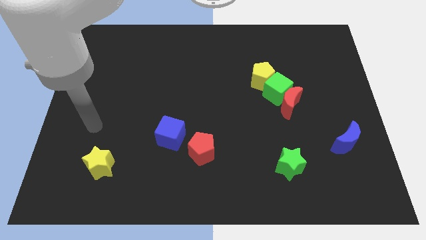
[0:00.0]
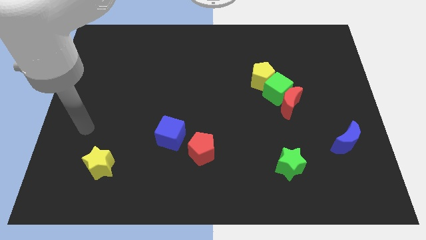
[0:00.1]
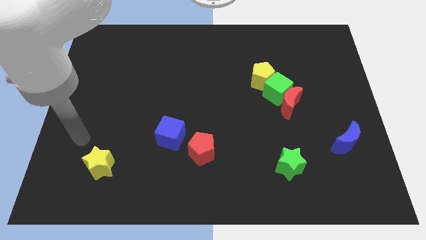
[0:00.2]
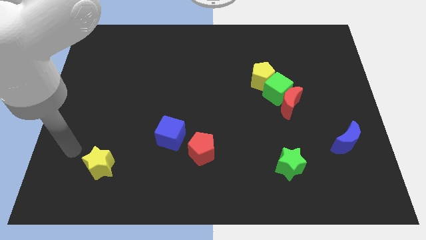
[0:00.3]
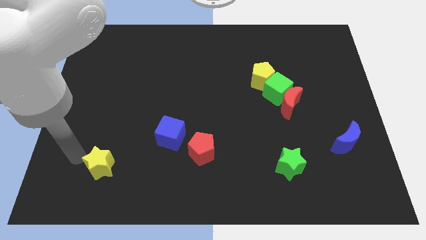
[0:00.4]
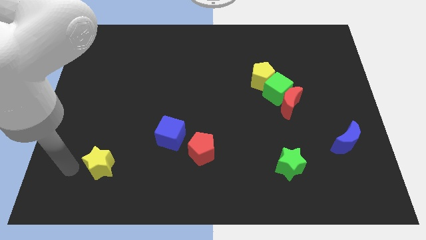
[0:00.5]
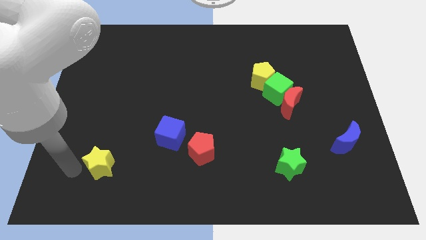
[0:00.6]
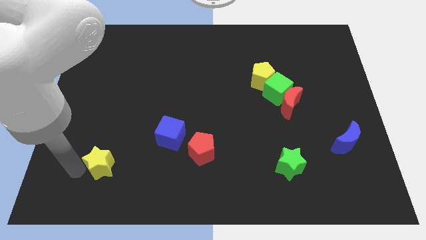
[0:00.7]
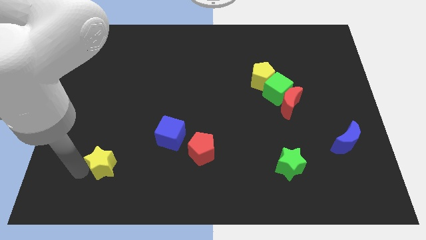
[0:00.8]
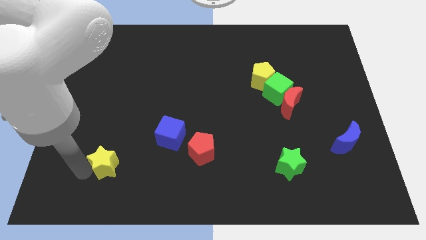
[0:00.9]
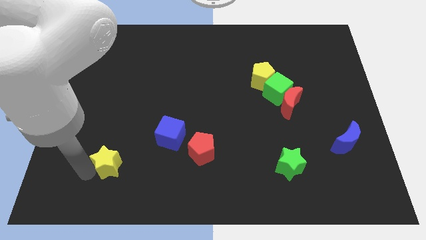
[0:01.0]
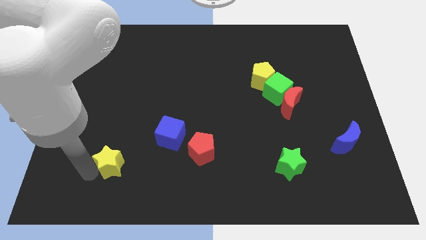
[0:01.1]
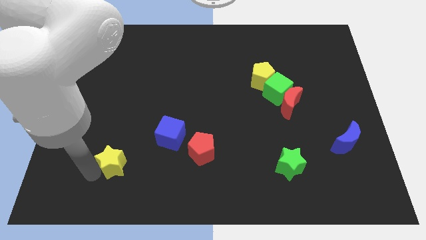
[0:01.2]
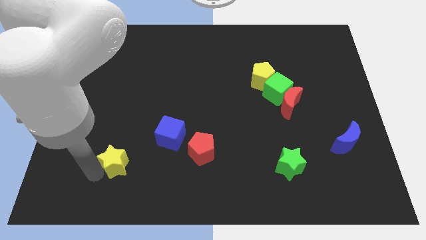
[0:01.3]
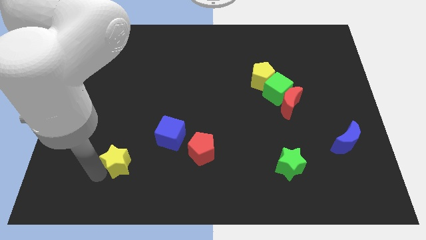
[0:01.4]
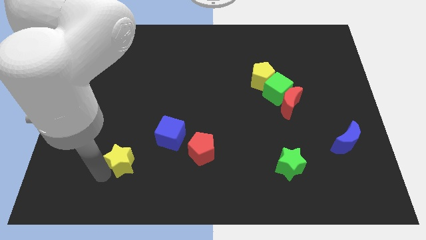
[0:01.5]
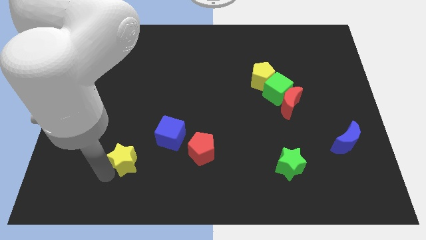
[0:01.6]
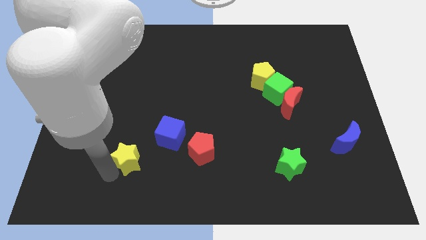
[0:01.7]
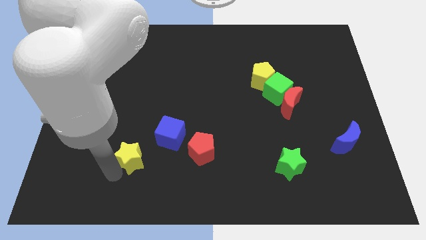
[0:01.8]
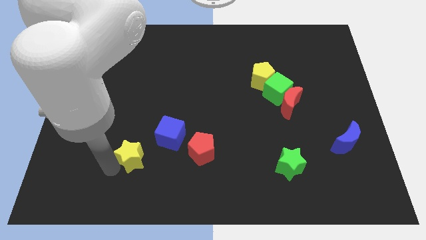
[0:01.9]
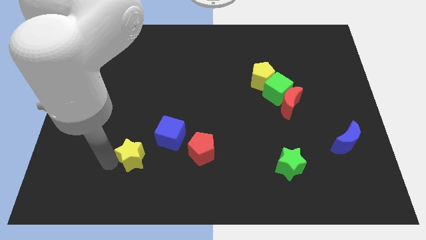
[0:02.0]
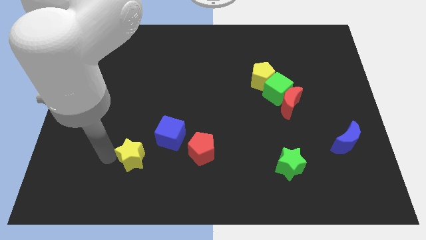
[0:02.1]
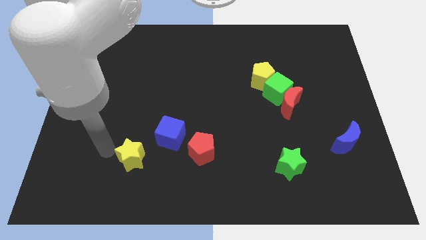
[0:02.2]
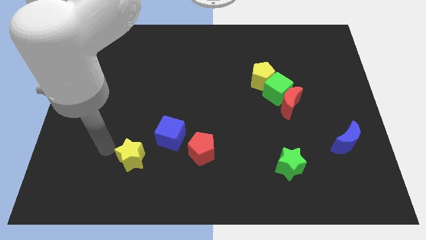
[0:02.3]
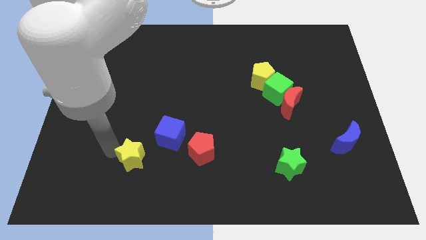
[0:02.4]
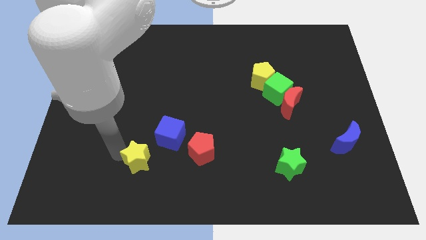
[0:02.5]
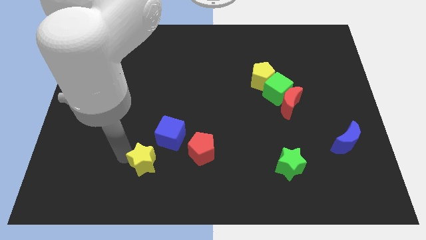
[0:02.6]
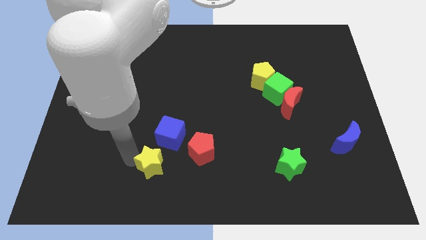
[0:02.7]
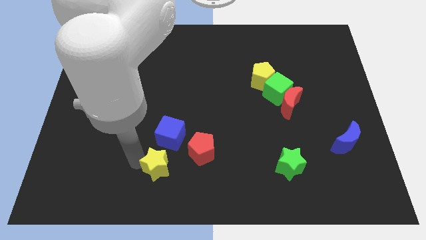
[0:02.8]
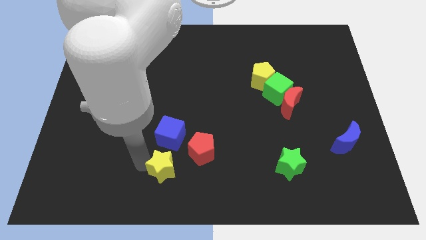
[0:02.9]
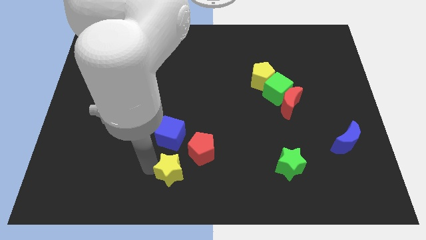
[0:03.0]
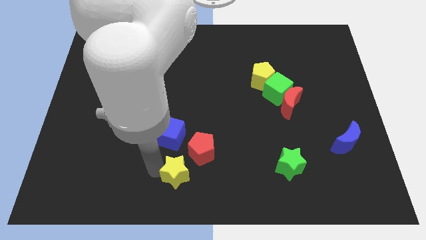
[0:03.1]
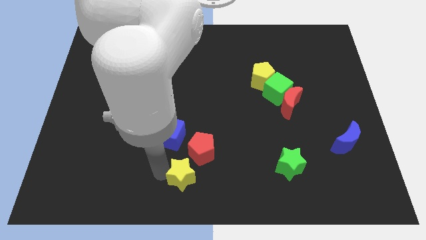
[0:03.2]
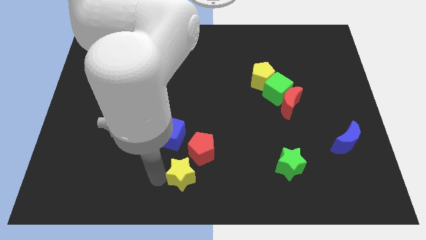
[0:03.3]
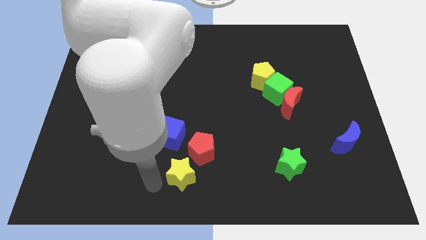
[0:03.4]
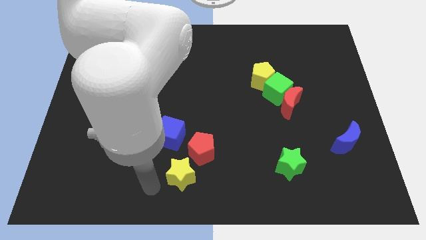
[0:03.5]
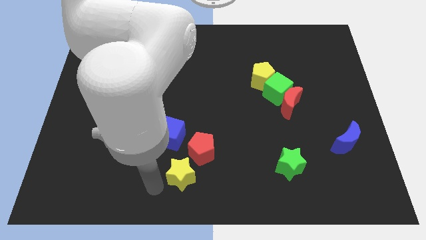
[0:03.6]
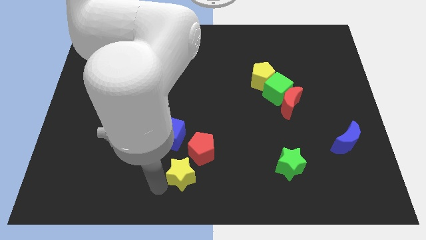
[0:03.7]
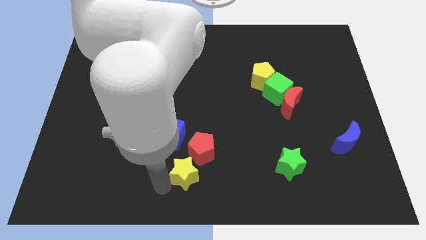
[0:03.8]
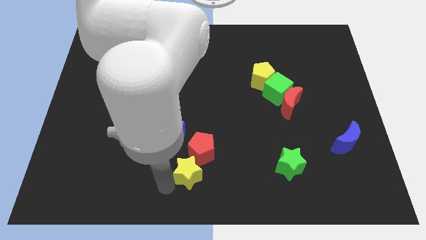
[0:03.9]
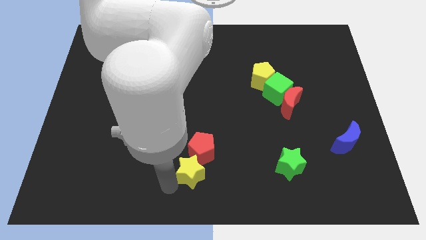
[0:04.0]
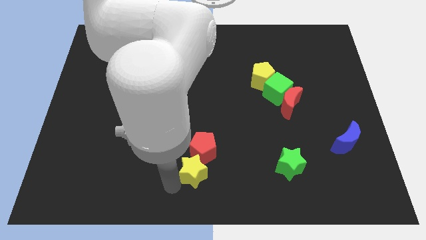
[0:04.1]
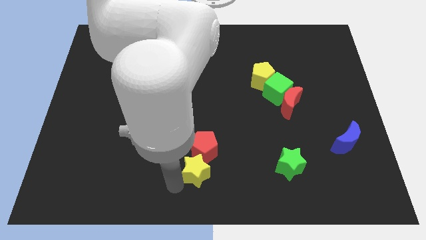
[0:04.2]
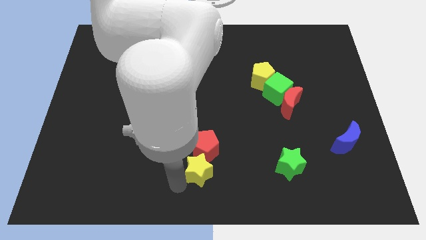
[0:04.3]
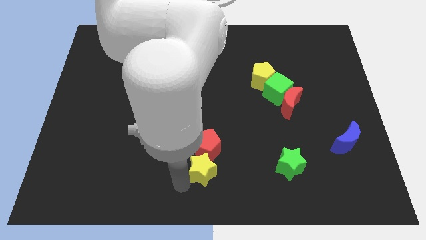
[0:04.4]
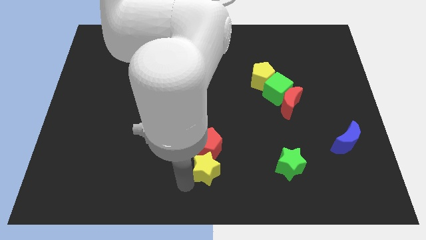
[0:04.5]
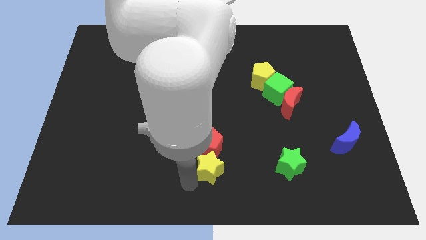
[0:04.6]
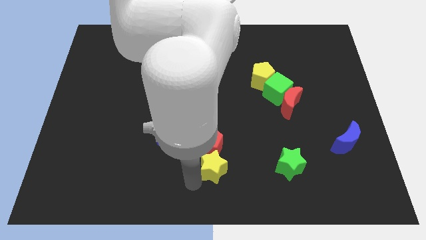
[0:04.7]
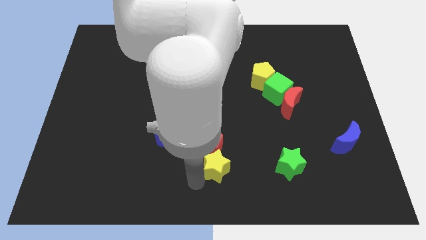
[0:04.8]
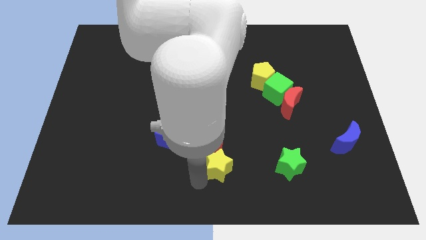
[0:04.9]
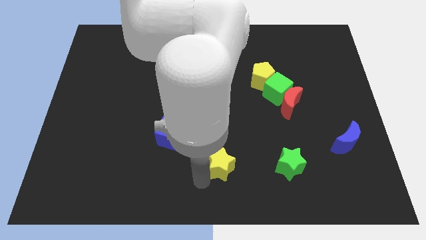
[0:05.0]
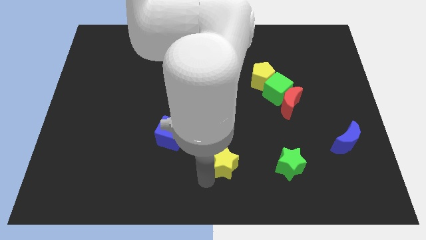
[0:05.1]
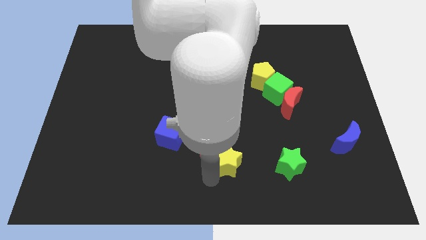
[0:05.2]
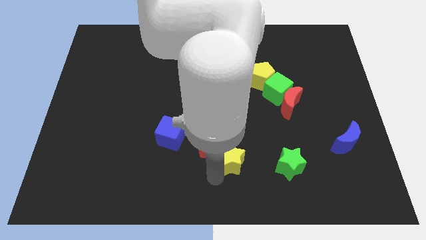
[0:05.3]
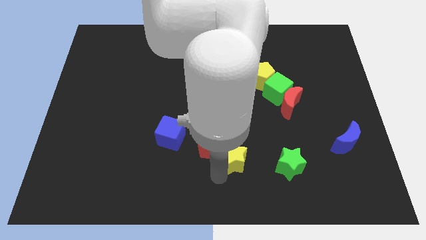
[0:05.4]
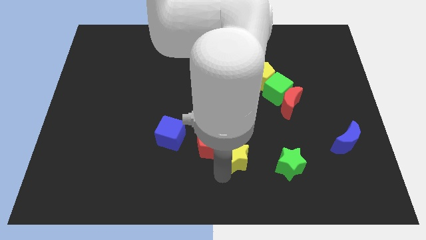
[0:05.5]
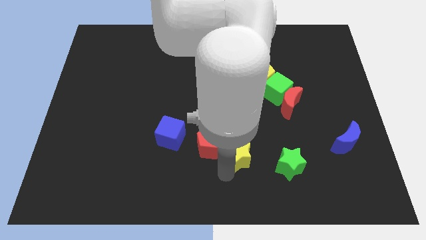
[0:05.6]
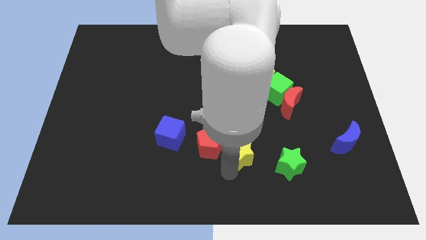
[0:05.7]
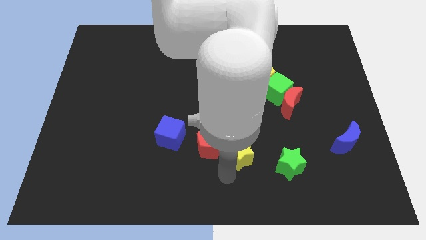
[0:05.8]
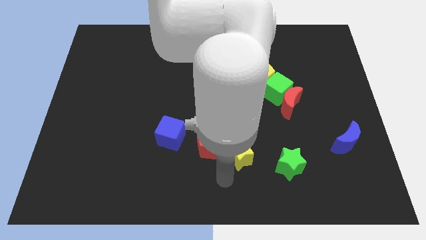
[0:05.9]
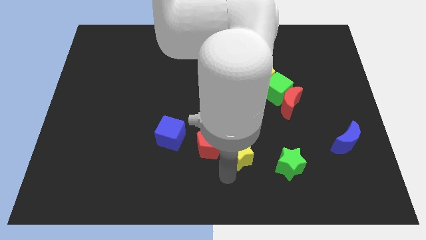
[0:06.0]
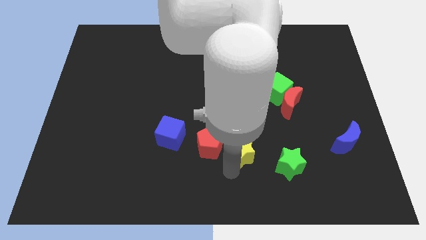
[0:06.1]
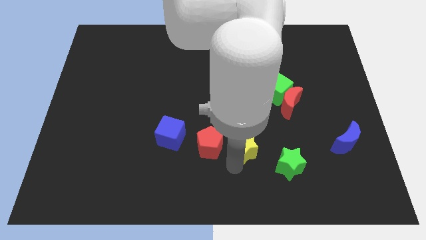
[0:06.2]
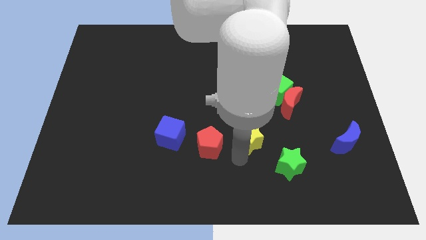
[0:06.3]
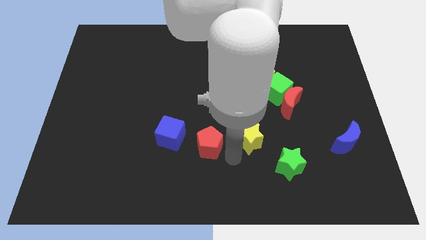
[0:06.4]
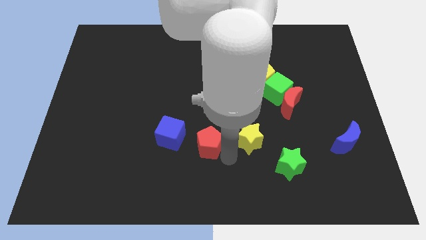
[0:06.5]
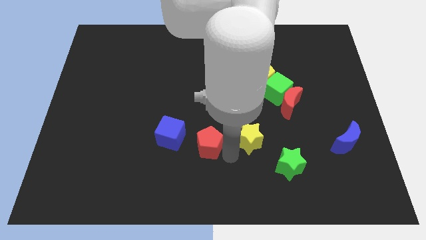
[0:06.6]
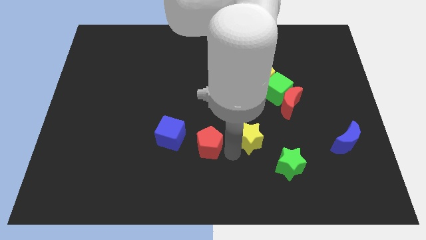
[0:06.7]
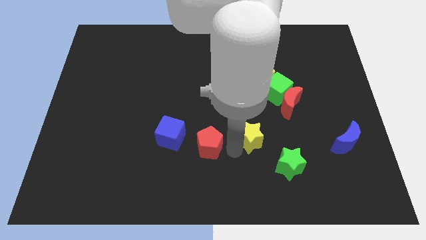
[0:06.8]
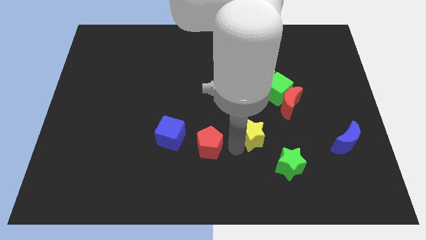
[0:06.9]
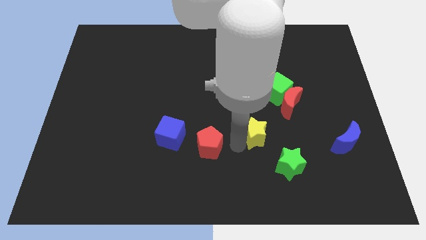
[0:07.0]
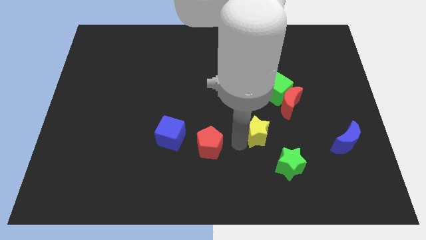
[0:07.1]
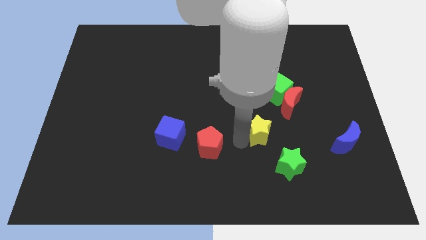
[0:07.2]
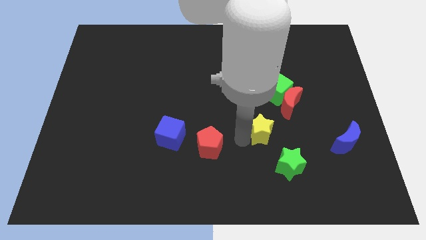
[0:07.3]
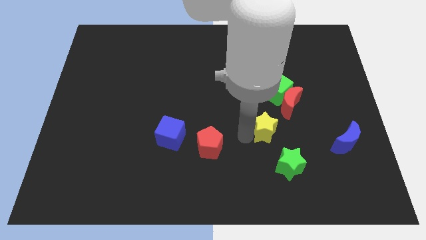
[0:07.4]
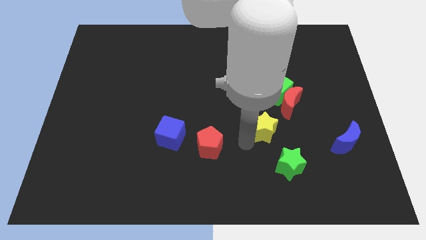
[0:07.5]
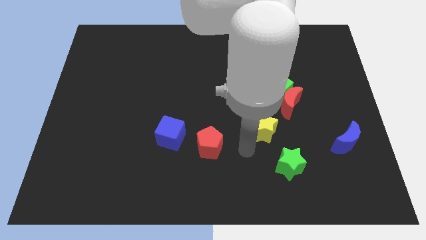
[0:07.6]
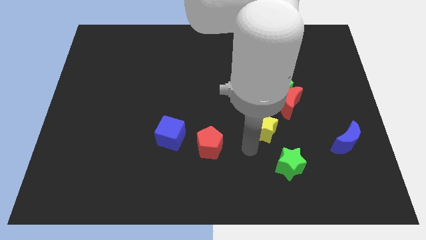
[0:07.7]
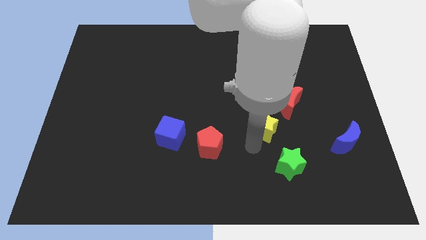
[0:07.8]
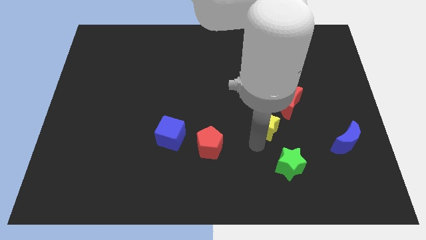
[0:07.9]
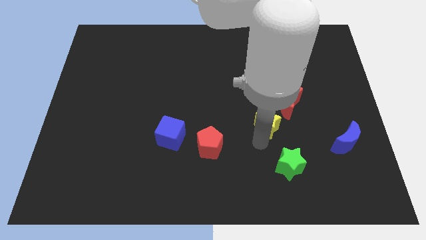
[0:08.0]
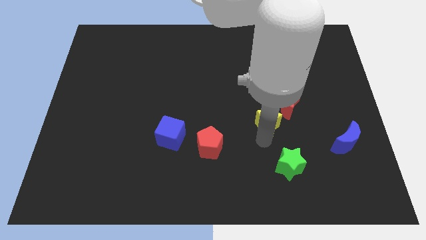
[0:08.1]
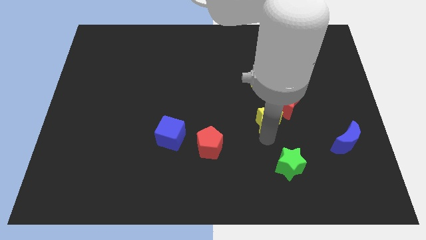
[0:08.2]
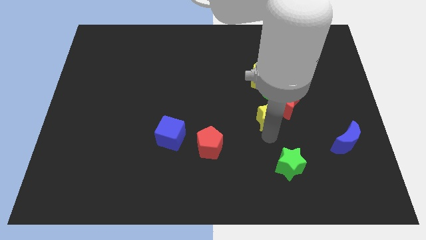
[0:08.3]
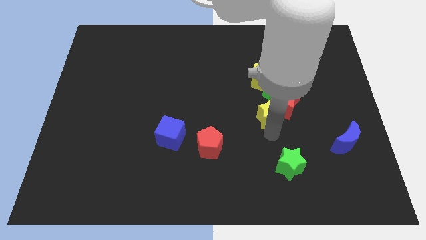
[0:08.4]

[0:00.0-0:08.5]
put the yellow star close to the red moon
